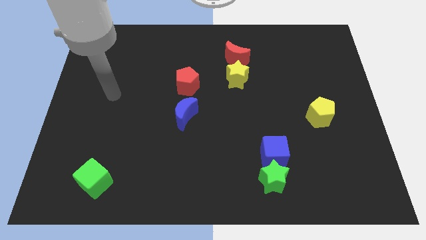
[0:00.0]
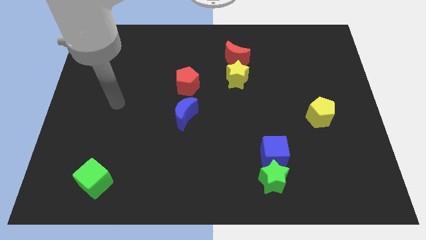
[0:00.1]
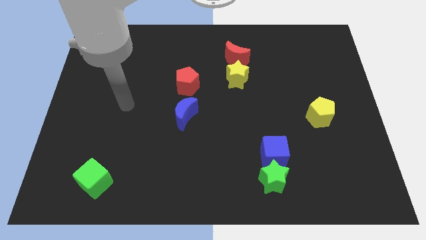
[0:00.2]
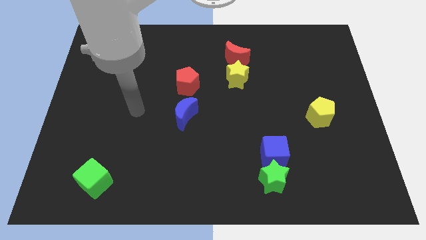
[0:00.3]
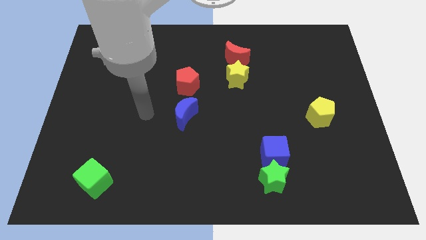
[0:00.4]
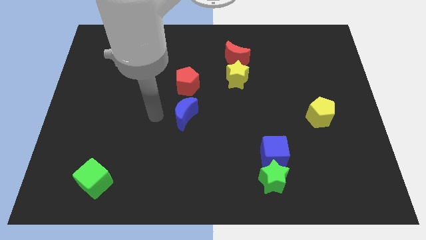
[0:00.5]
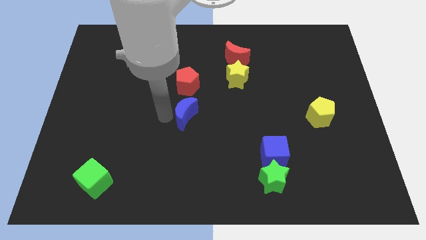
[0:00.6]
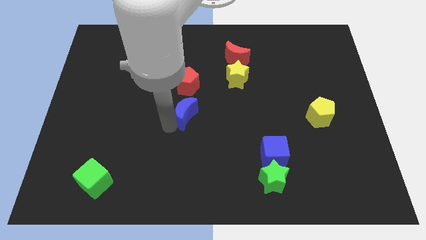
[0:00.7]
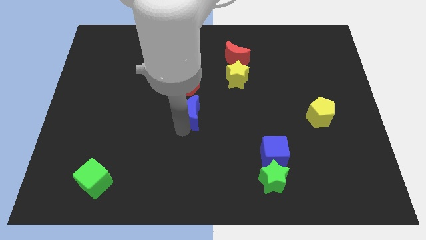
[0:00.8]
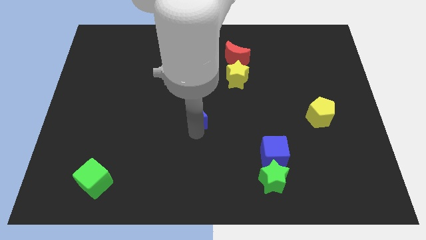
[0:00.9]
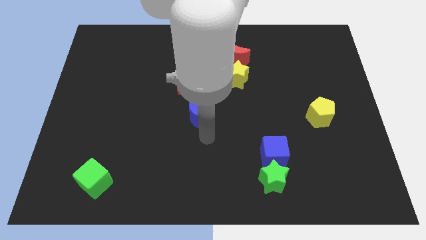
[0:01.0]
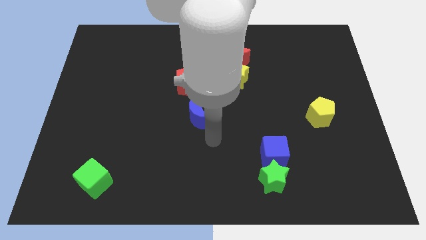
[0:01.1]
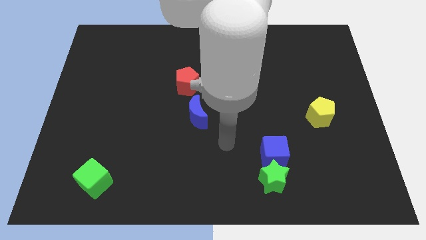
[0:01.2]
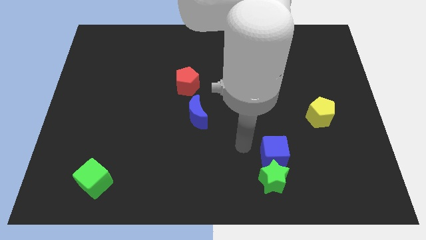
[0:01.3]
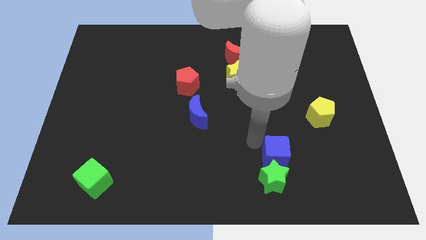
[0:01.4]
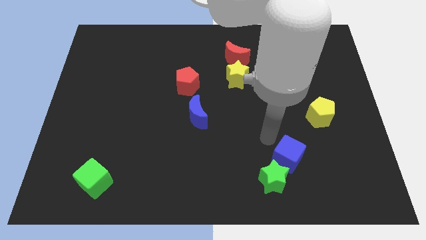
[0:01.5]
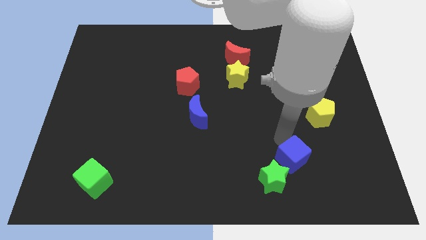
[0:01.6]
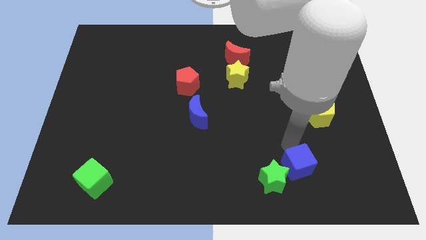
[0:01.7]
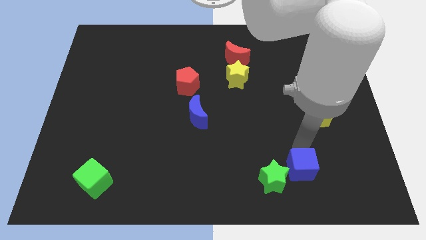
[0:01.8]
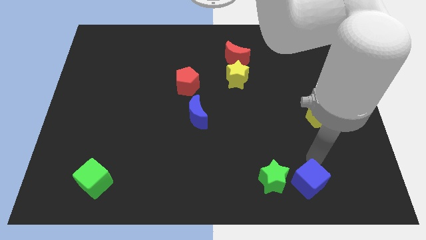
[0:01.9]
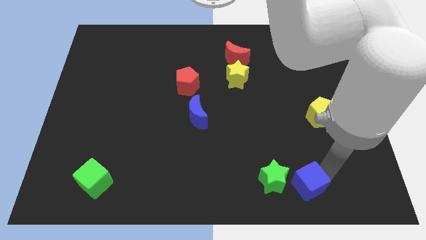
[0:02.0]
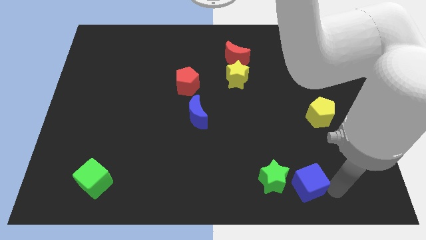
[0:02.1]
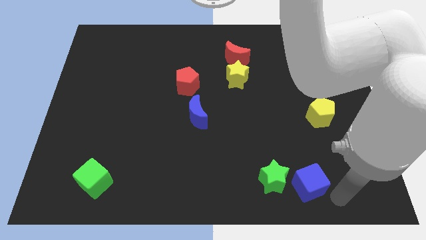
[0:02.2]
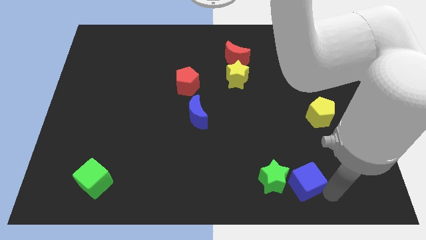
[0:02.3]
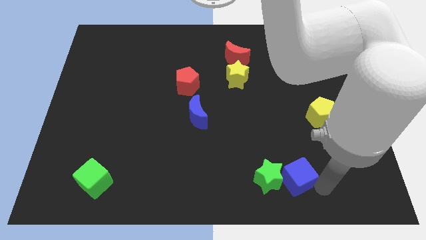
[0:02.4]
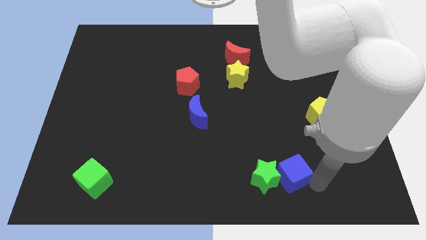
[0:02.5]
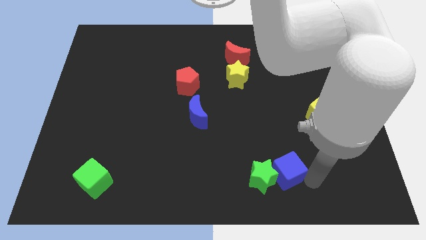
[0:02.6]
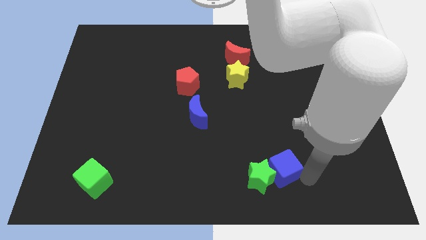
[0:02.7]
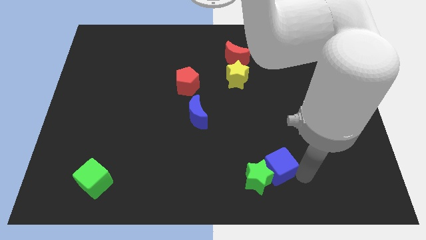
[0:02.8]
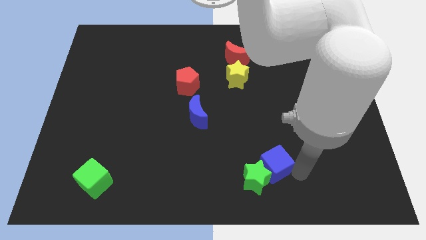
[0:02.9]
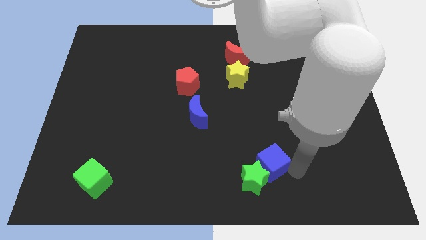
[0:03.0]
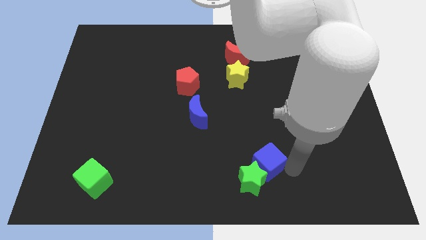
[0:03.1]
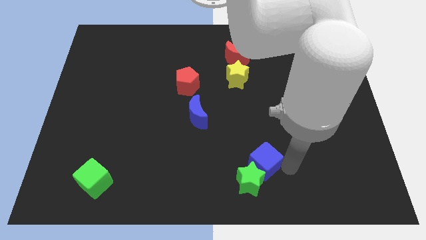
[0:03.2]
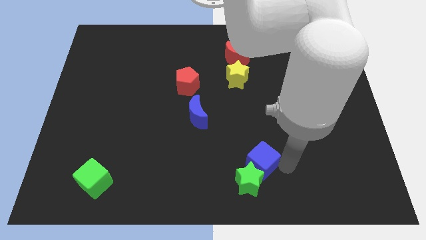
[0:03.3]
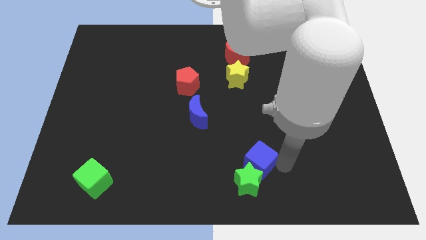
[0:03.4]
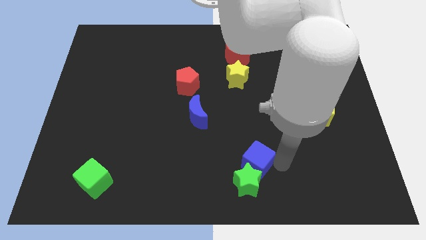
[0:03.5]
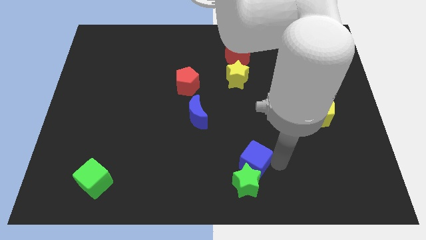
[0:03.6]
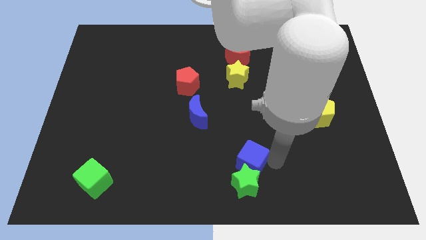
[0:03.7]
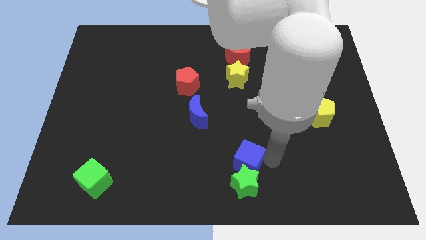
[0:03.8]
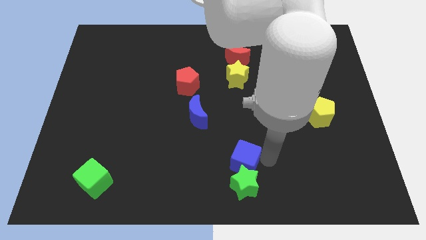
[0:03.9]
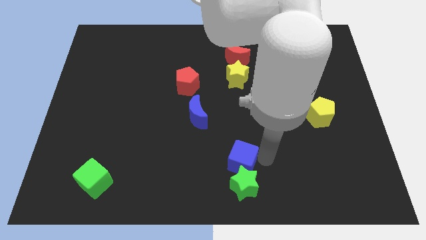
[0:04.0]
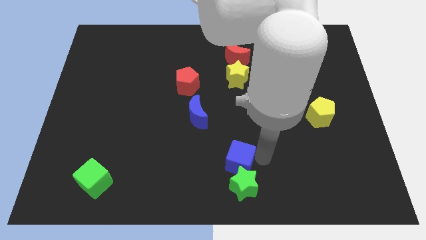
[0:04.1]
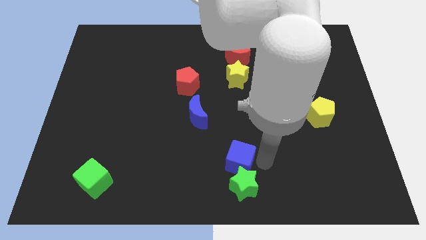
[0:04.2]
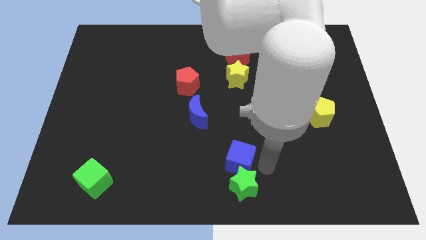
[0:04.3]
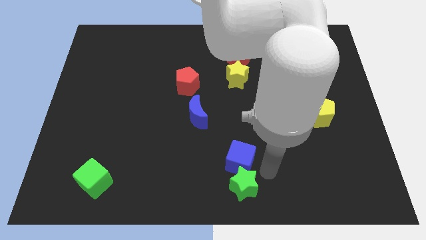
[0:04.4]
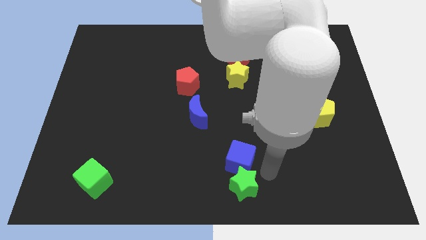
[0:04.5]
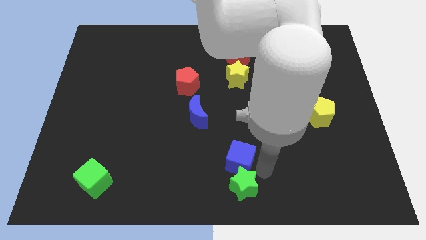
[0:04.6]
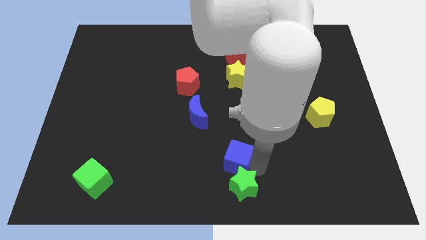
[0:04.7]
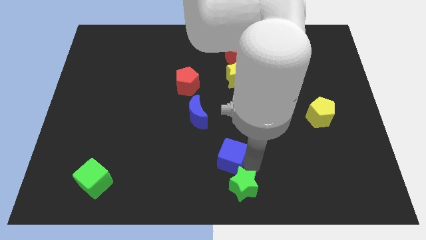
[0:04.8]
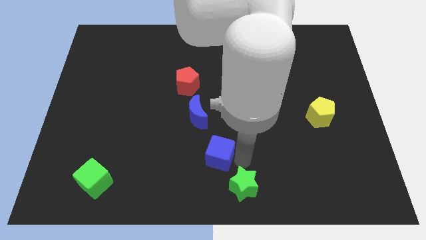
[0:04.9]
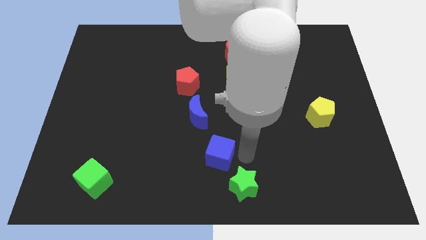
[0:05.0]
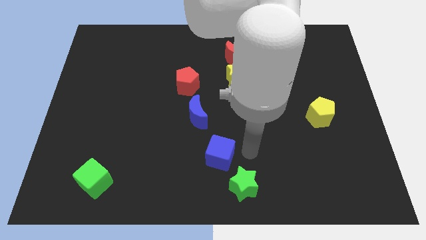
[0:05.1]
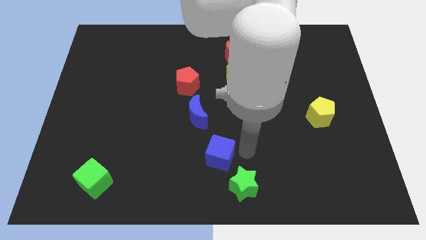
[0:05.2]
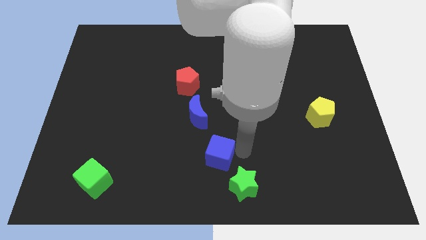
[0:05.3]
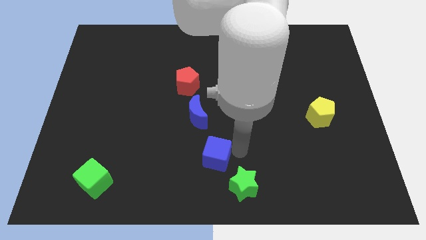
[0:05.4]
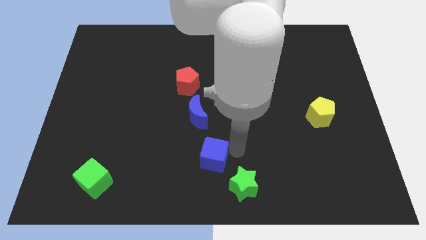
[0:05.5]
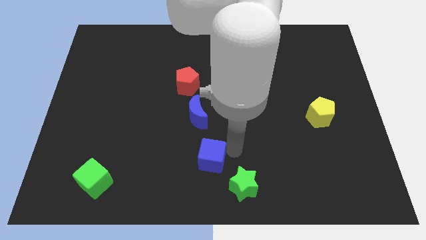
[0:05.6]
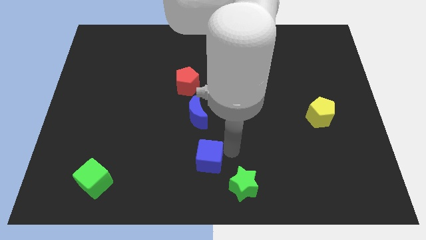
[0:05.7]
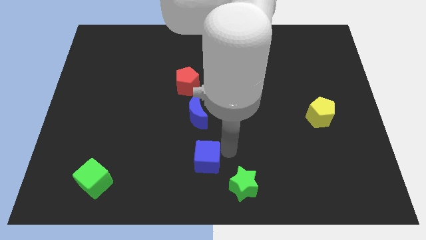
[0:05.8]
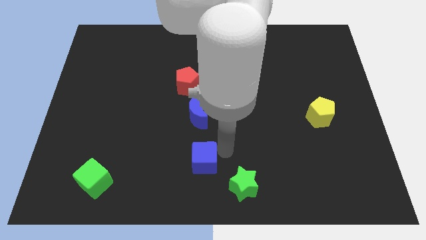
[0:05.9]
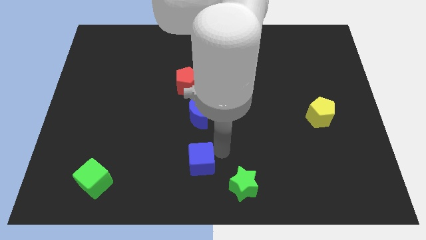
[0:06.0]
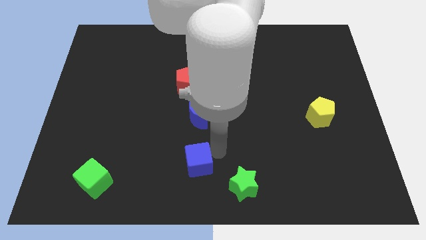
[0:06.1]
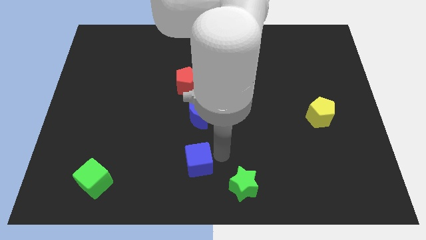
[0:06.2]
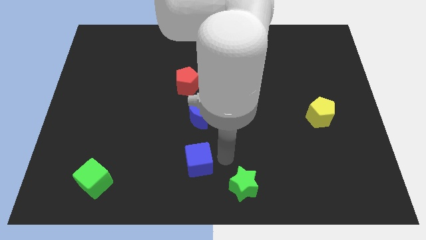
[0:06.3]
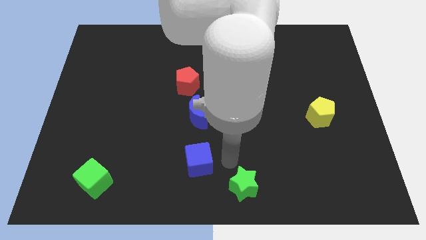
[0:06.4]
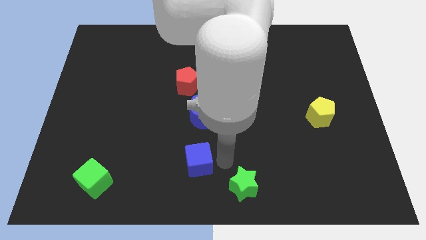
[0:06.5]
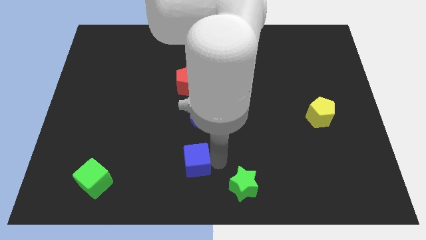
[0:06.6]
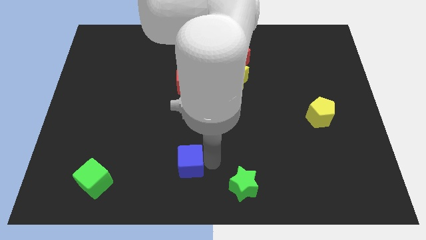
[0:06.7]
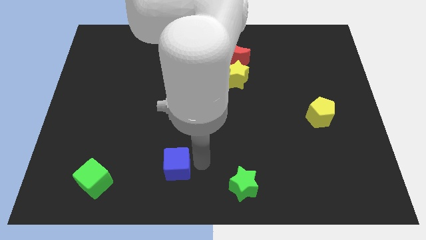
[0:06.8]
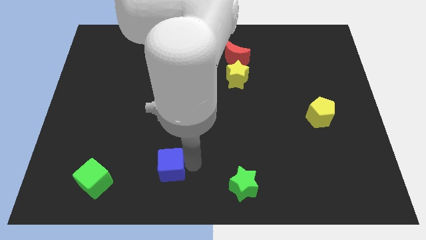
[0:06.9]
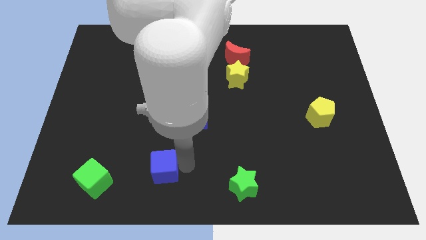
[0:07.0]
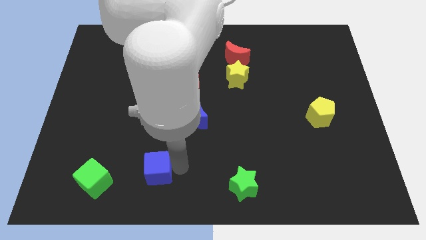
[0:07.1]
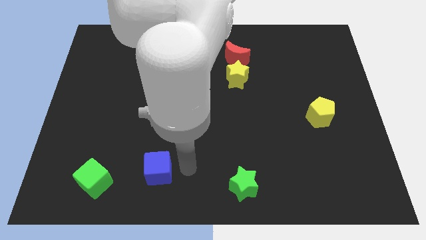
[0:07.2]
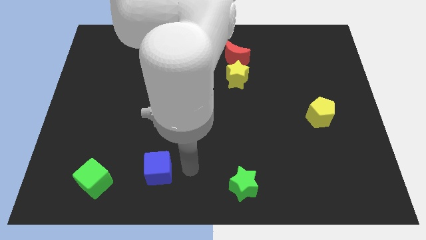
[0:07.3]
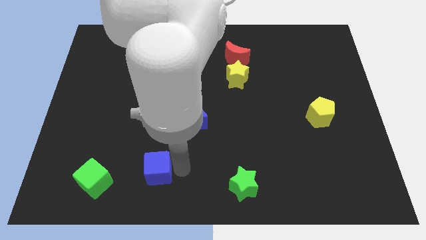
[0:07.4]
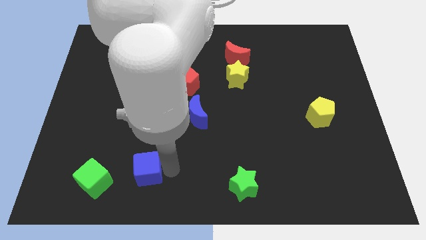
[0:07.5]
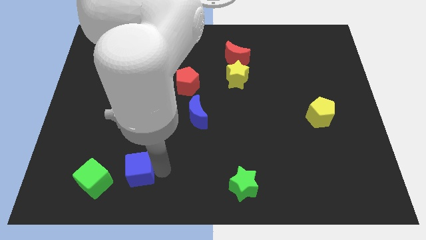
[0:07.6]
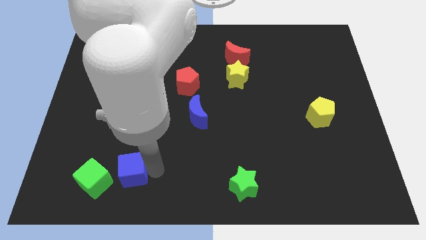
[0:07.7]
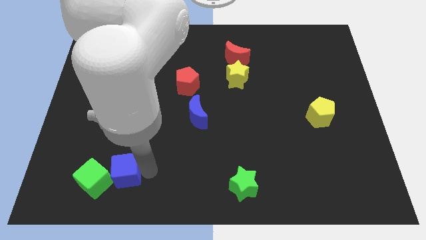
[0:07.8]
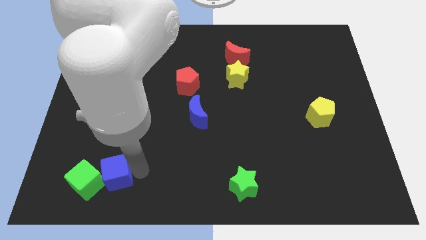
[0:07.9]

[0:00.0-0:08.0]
put the blue cube next to the green cube
